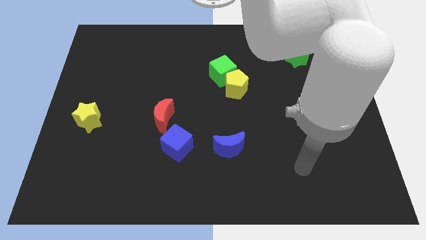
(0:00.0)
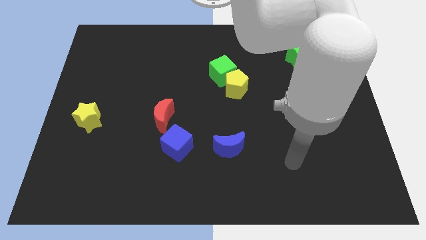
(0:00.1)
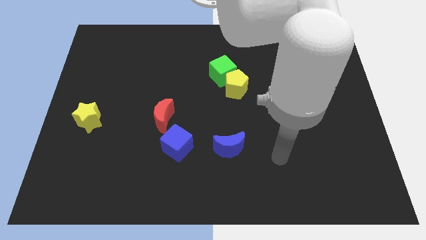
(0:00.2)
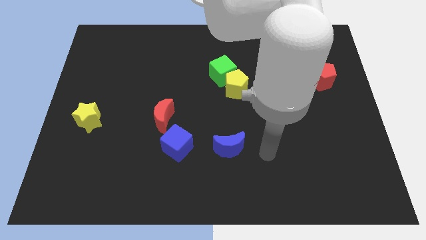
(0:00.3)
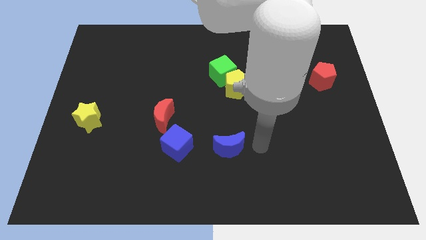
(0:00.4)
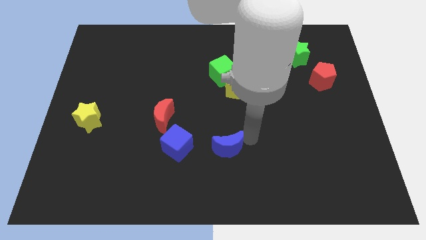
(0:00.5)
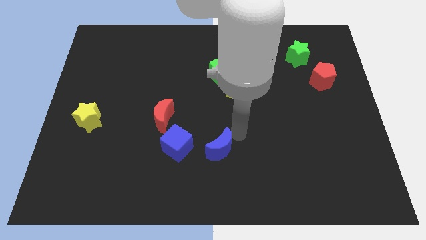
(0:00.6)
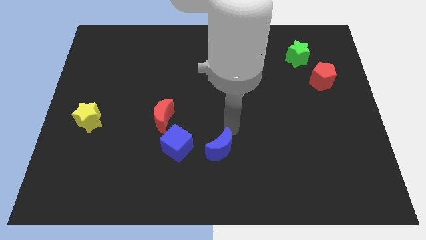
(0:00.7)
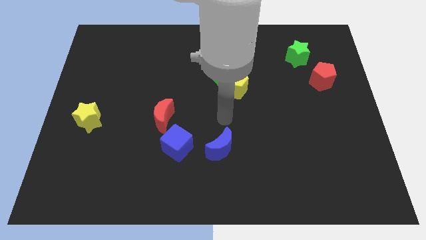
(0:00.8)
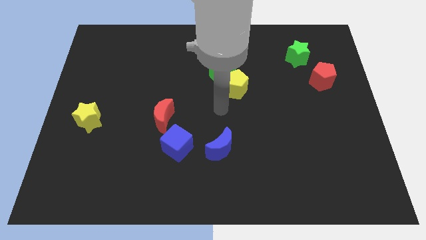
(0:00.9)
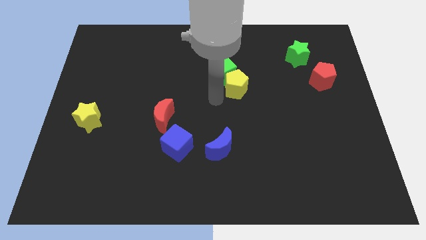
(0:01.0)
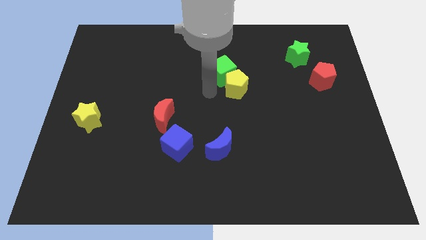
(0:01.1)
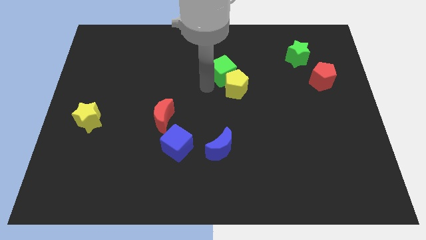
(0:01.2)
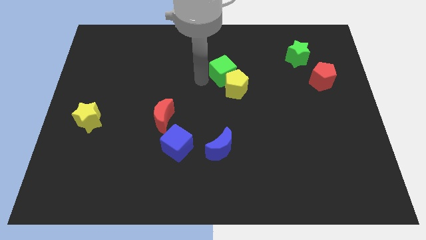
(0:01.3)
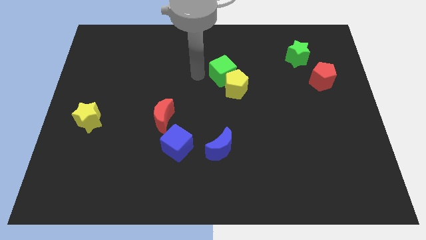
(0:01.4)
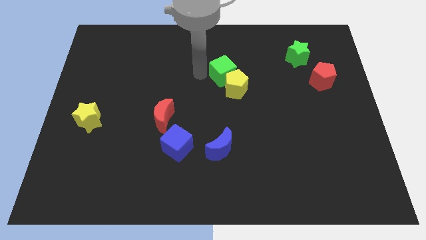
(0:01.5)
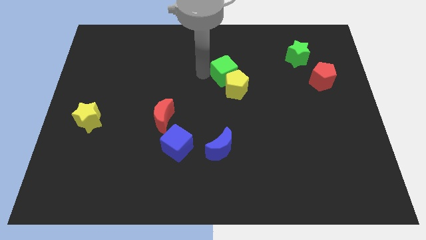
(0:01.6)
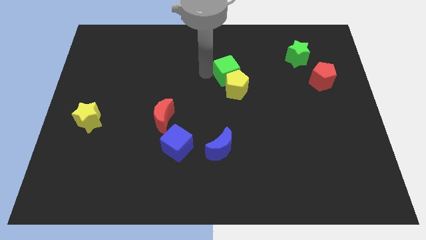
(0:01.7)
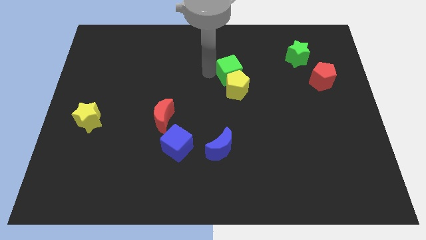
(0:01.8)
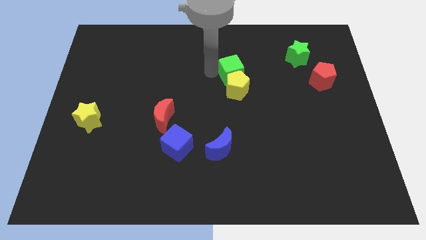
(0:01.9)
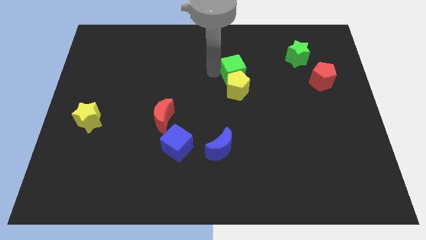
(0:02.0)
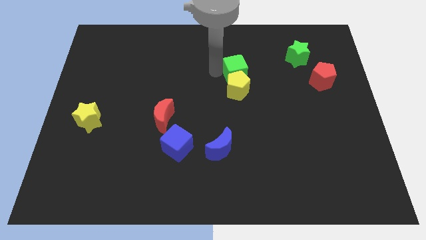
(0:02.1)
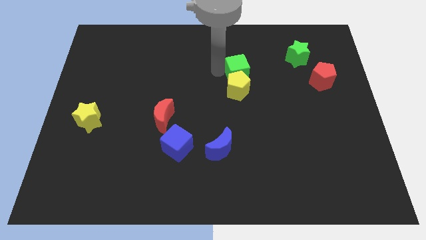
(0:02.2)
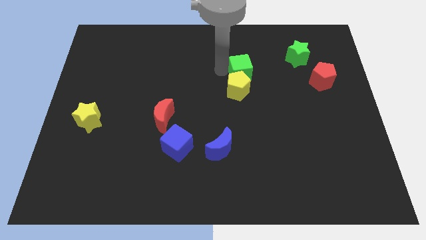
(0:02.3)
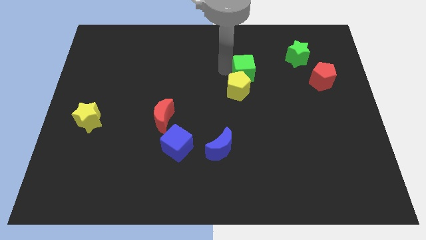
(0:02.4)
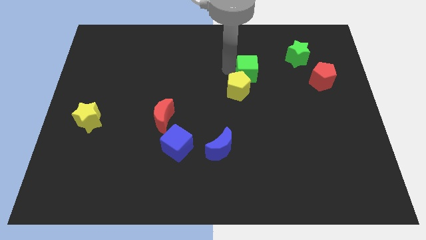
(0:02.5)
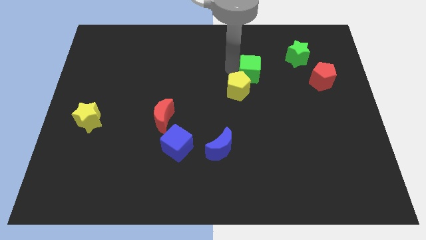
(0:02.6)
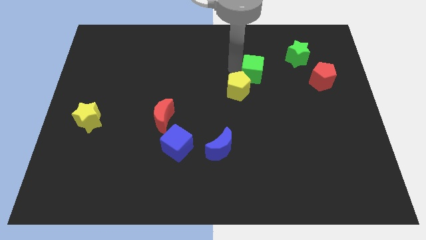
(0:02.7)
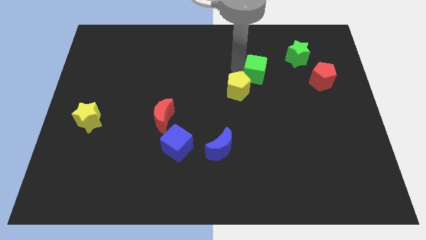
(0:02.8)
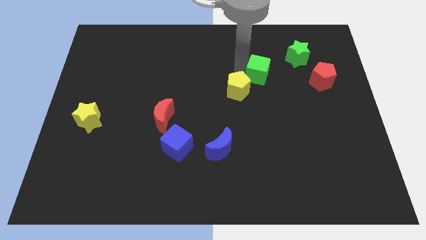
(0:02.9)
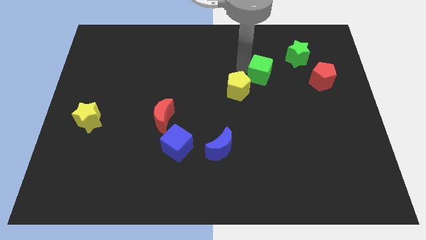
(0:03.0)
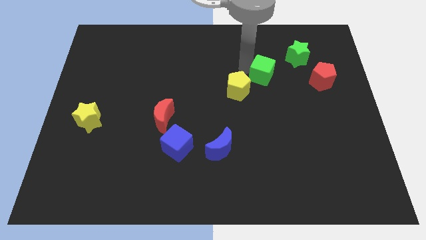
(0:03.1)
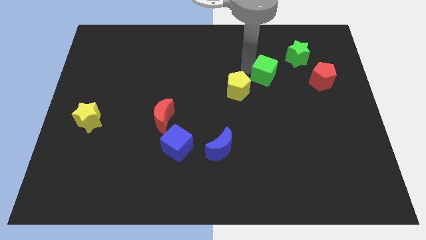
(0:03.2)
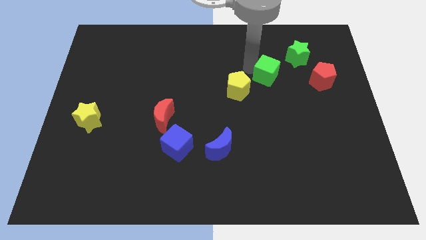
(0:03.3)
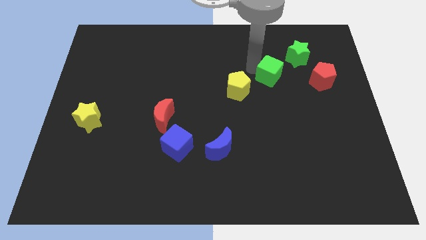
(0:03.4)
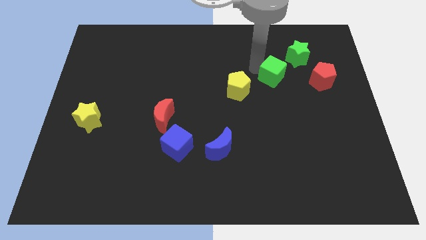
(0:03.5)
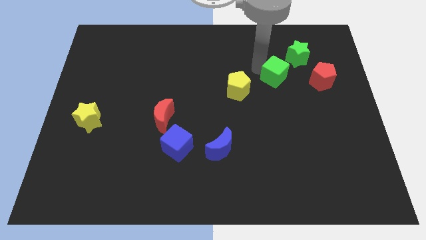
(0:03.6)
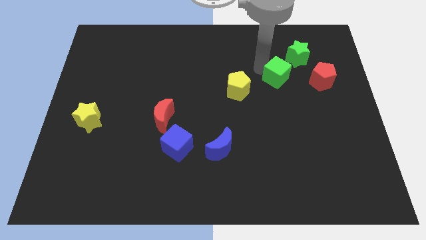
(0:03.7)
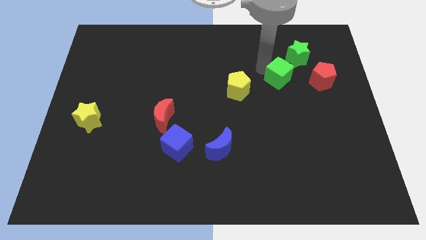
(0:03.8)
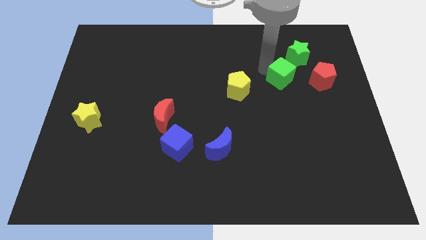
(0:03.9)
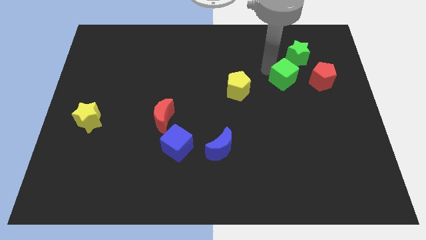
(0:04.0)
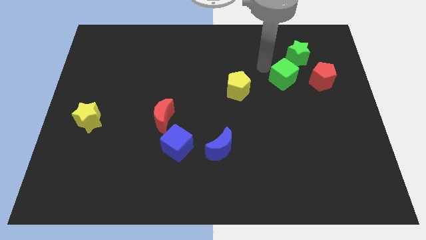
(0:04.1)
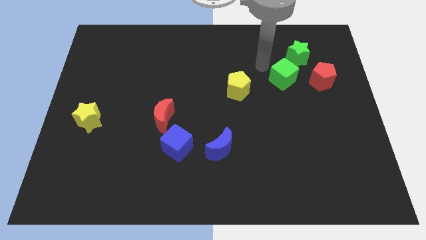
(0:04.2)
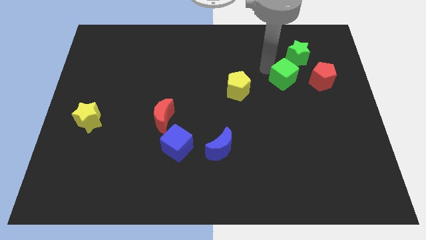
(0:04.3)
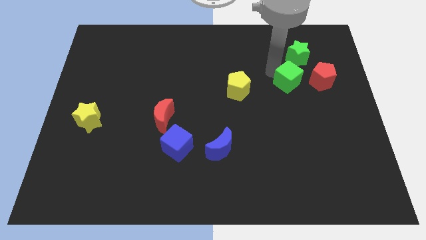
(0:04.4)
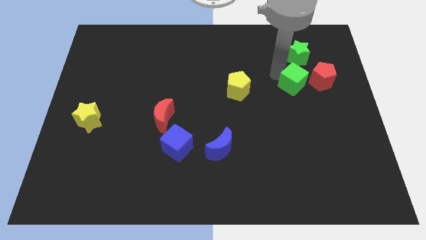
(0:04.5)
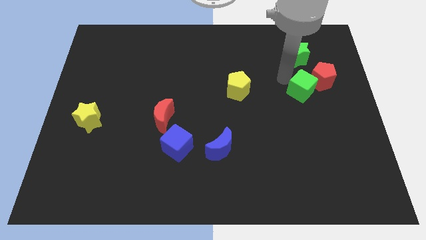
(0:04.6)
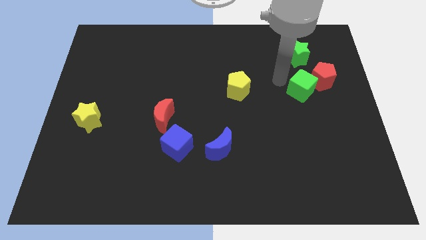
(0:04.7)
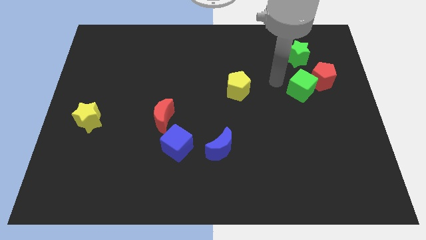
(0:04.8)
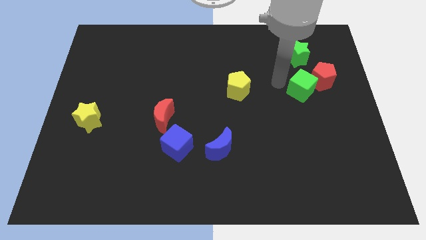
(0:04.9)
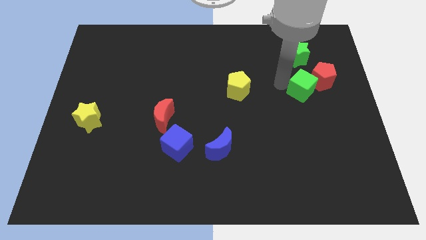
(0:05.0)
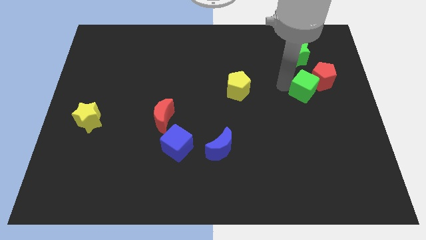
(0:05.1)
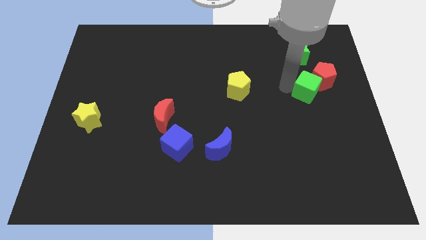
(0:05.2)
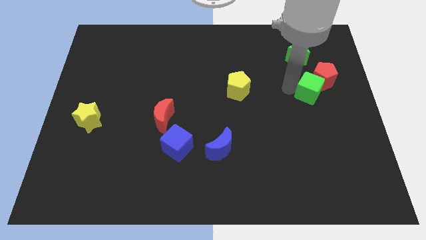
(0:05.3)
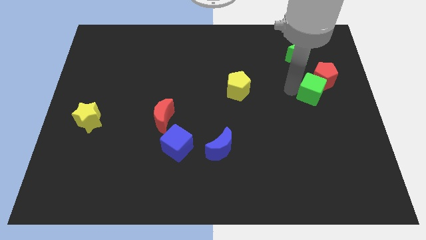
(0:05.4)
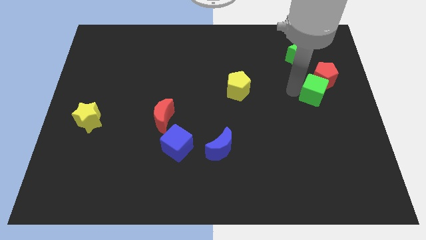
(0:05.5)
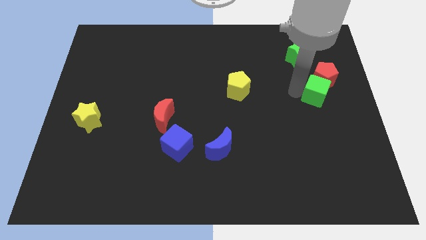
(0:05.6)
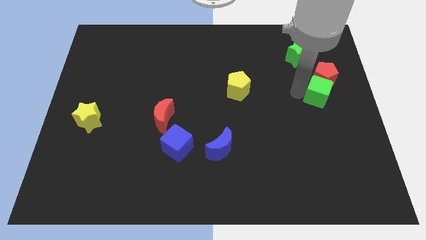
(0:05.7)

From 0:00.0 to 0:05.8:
push the green cube to the right side of the board

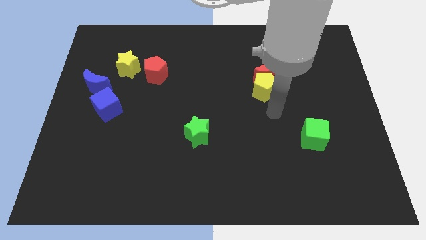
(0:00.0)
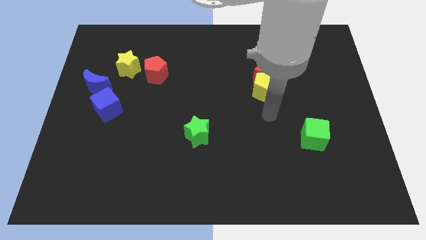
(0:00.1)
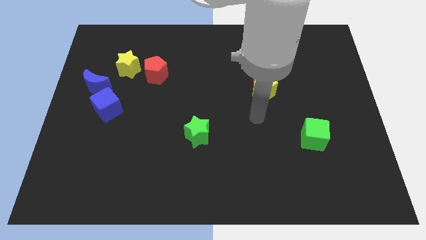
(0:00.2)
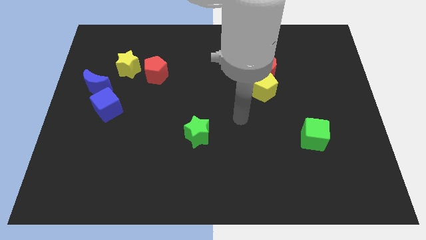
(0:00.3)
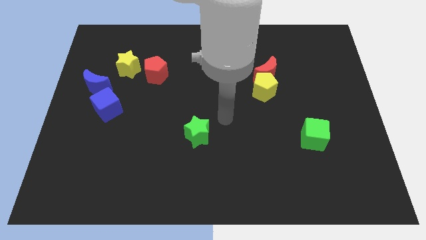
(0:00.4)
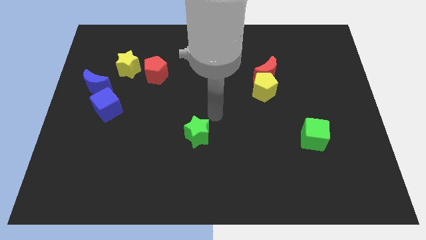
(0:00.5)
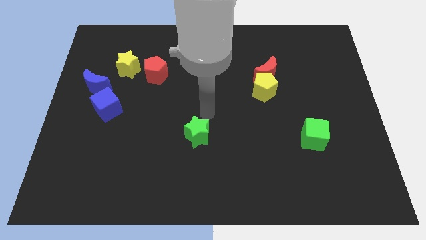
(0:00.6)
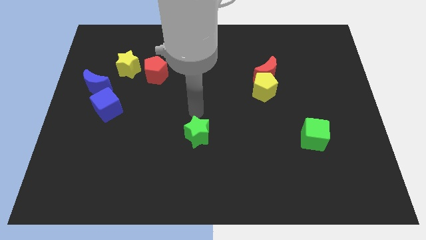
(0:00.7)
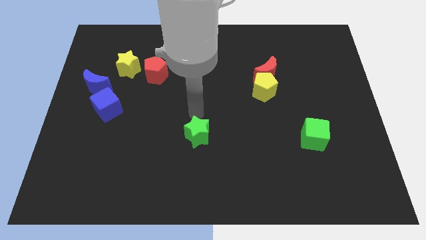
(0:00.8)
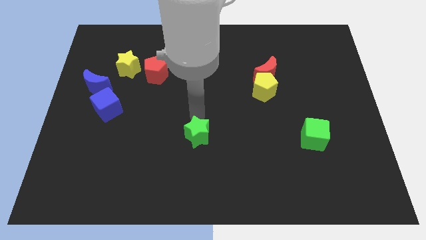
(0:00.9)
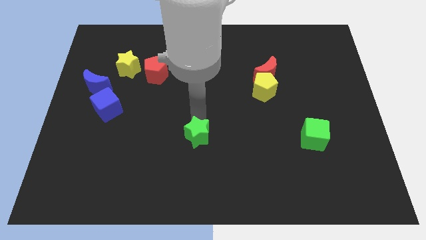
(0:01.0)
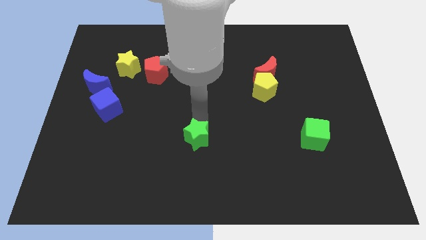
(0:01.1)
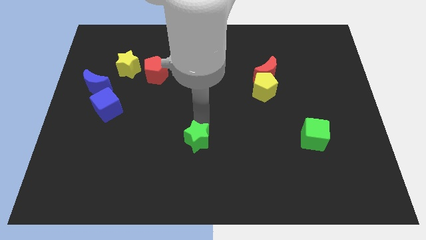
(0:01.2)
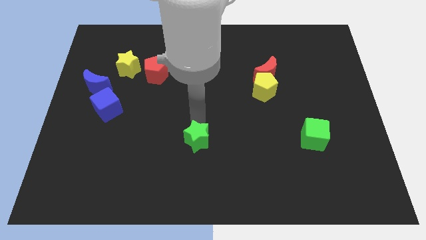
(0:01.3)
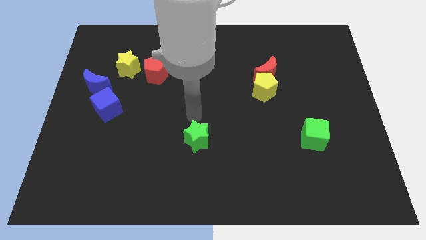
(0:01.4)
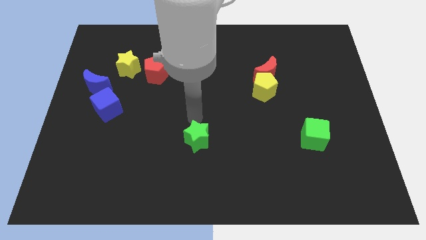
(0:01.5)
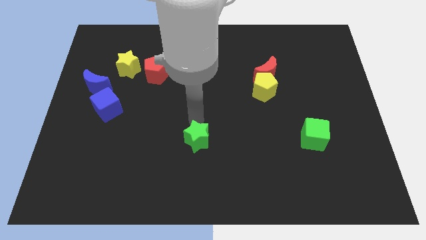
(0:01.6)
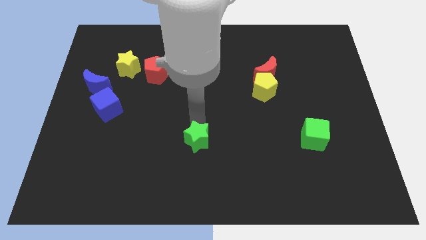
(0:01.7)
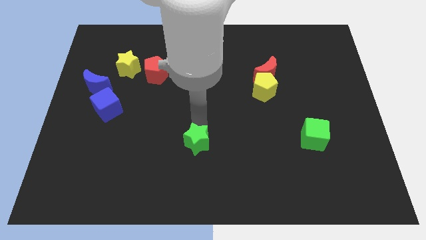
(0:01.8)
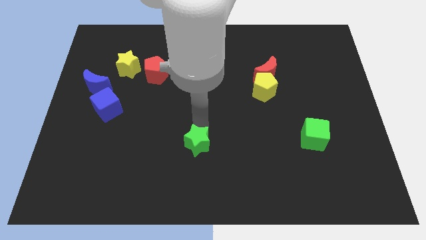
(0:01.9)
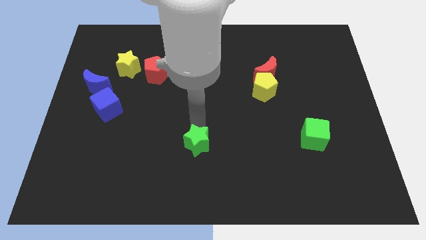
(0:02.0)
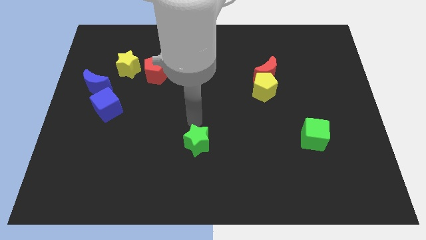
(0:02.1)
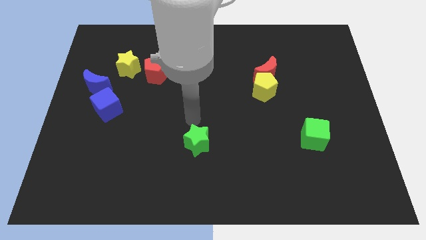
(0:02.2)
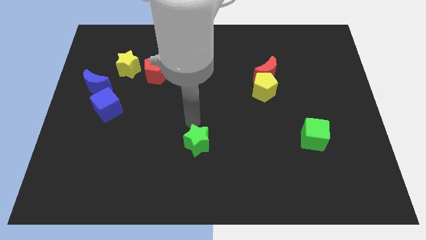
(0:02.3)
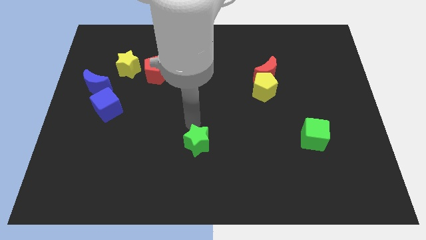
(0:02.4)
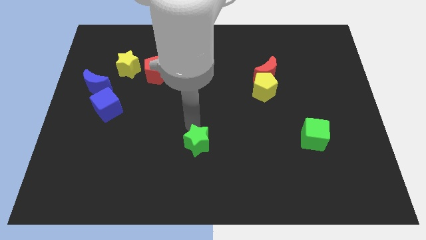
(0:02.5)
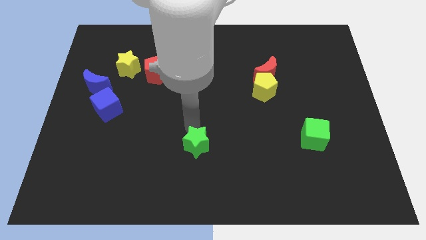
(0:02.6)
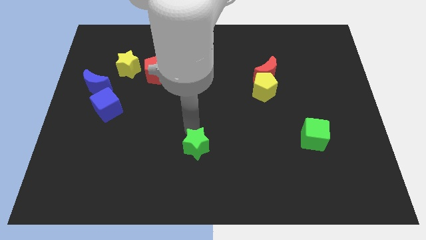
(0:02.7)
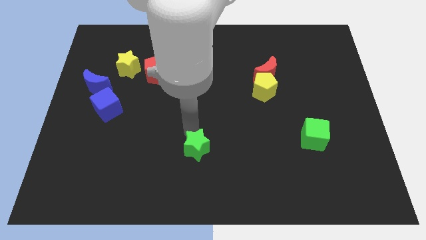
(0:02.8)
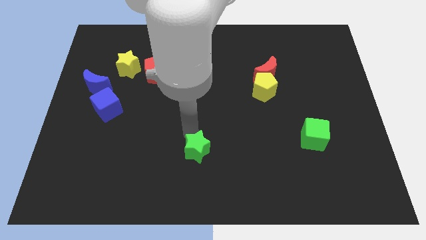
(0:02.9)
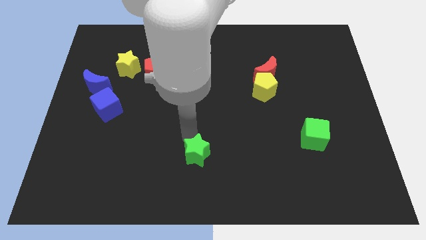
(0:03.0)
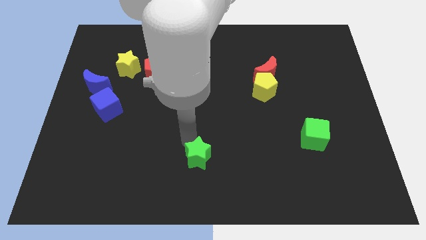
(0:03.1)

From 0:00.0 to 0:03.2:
put the green star to the bottom
